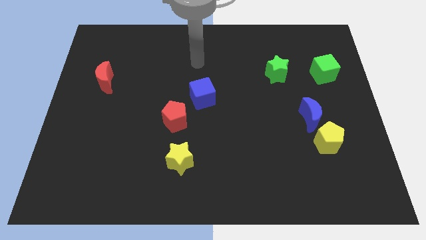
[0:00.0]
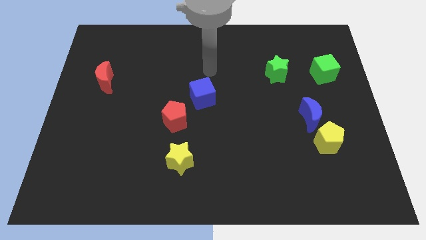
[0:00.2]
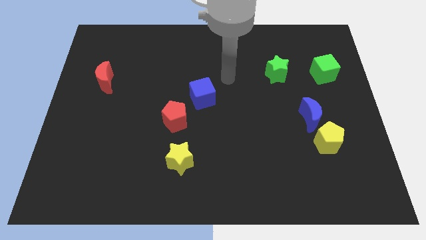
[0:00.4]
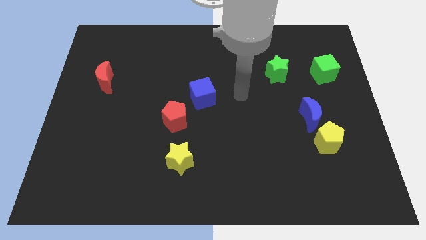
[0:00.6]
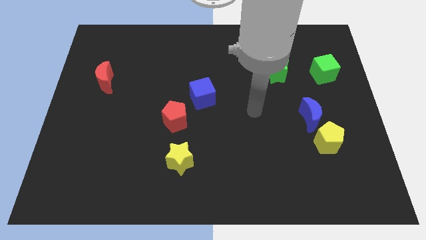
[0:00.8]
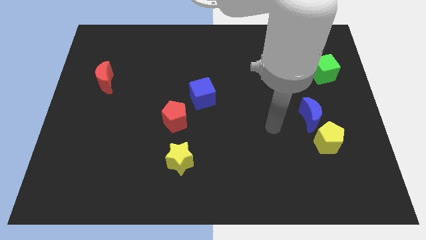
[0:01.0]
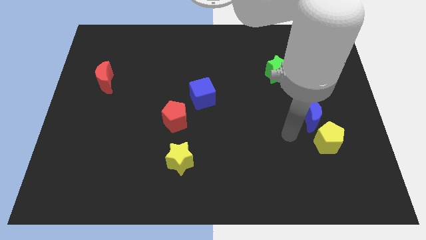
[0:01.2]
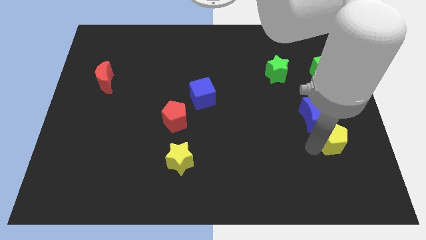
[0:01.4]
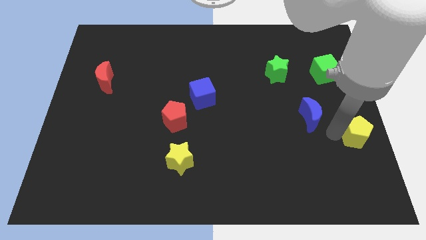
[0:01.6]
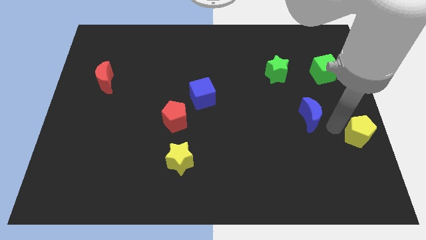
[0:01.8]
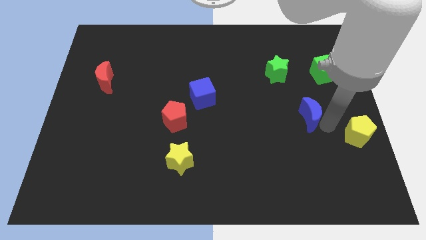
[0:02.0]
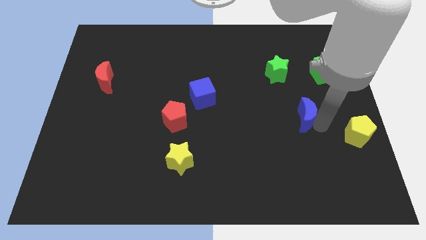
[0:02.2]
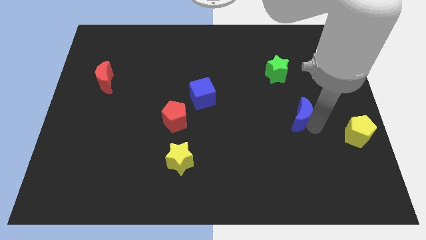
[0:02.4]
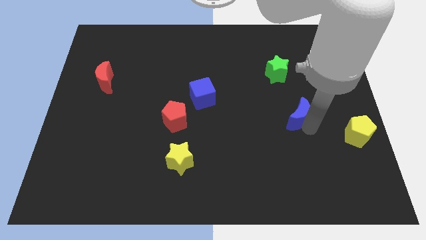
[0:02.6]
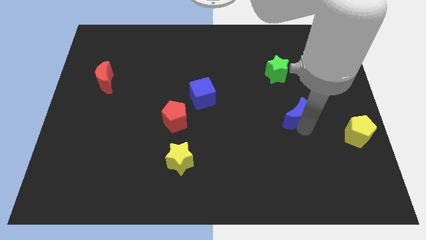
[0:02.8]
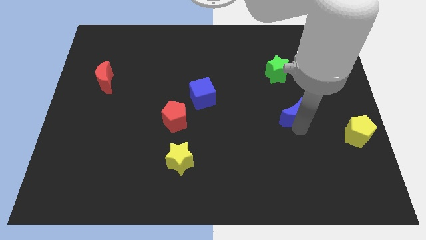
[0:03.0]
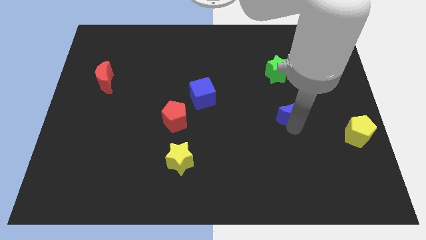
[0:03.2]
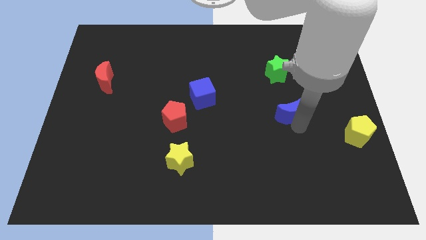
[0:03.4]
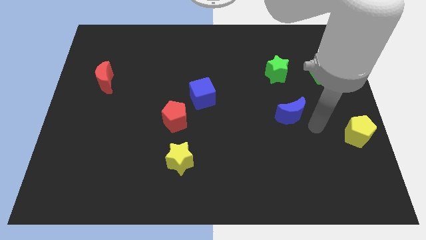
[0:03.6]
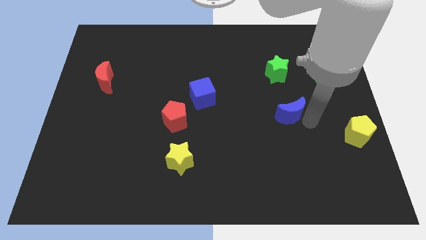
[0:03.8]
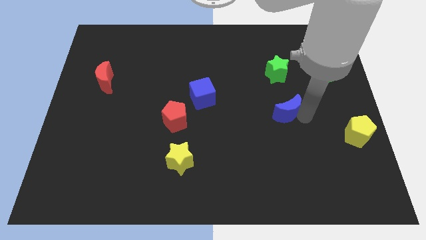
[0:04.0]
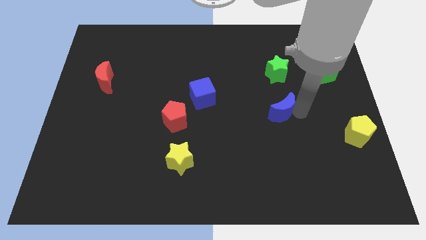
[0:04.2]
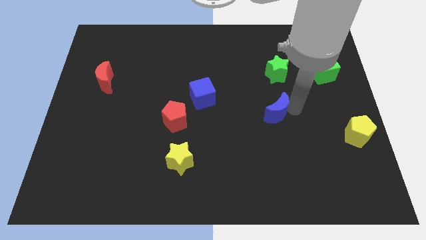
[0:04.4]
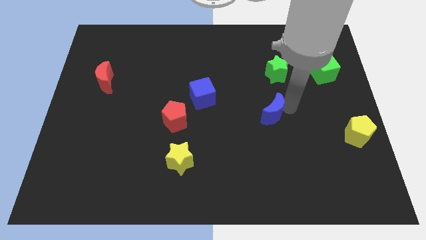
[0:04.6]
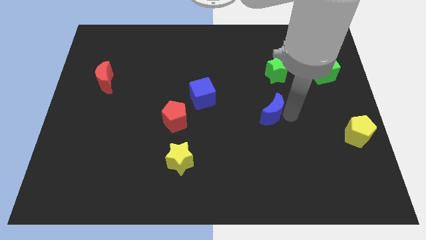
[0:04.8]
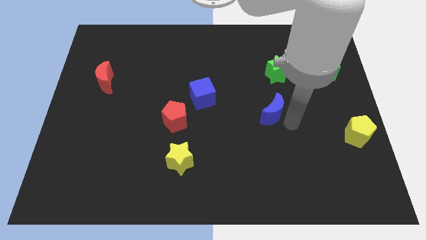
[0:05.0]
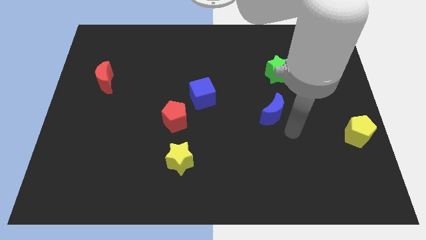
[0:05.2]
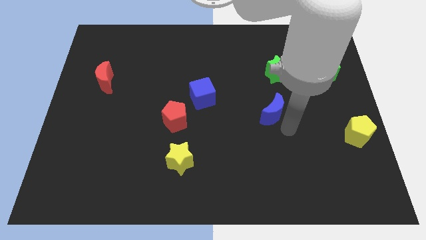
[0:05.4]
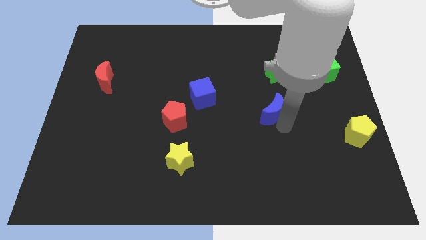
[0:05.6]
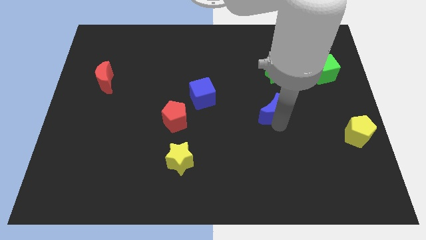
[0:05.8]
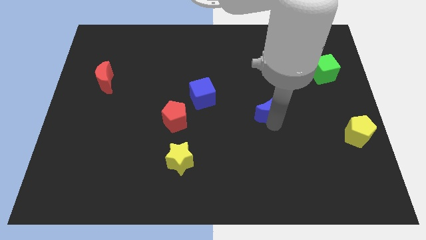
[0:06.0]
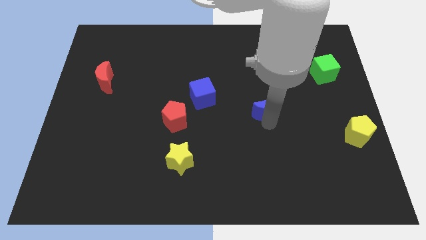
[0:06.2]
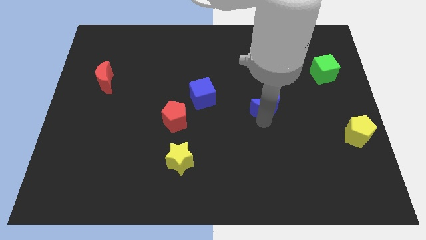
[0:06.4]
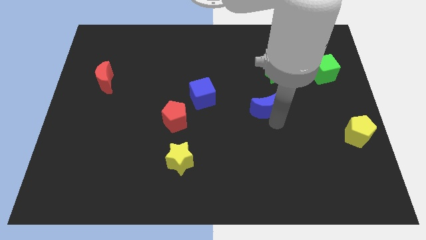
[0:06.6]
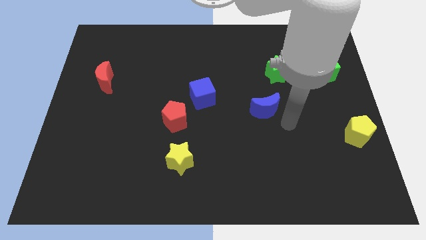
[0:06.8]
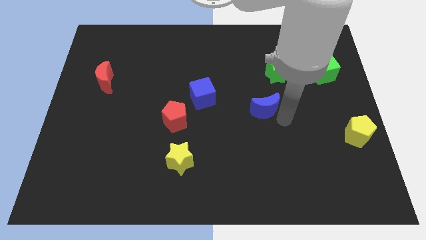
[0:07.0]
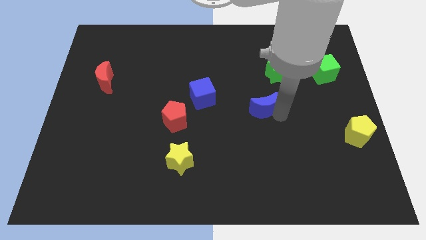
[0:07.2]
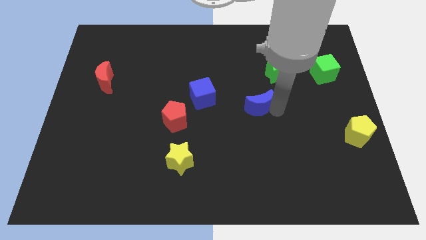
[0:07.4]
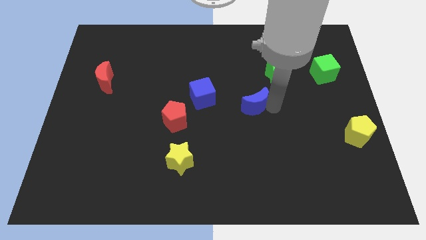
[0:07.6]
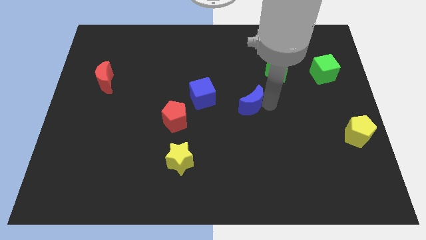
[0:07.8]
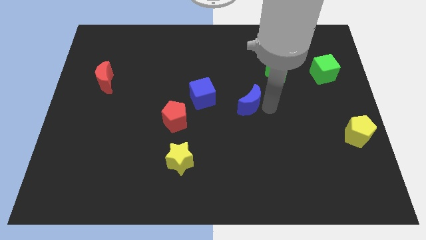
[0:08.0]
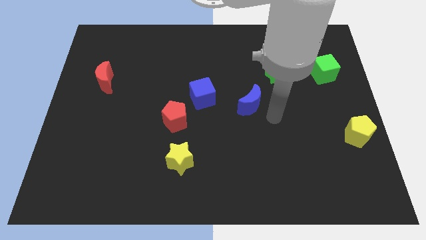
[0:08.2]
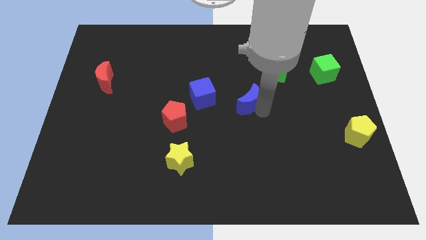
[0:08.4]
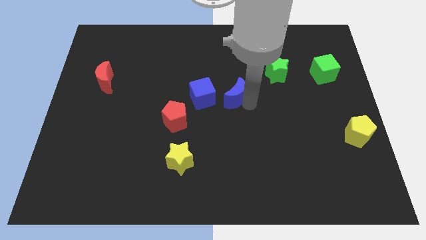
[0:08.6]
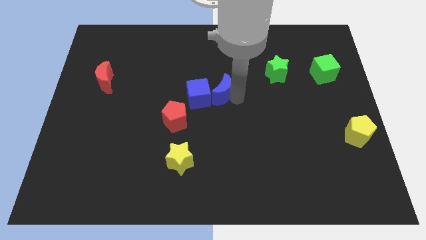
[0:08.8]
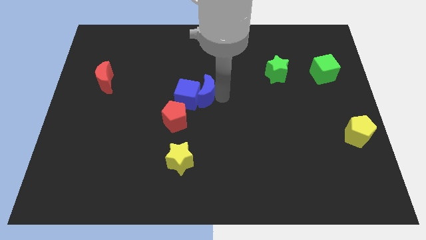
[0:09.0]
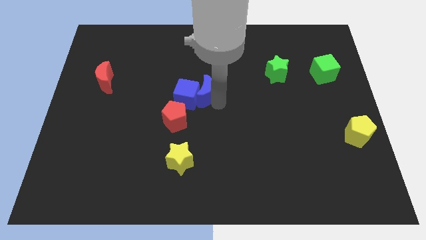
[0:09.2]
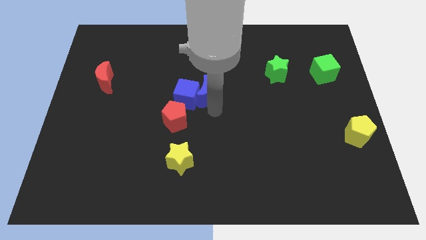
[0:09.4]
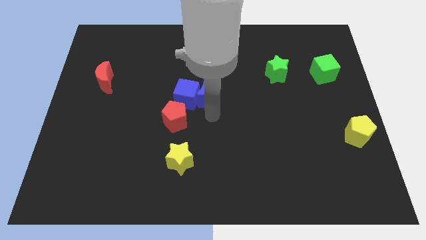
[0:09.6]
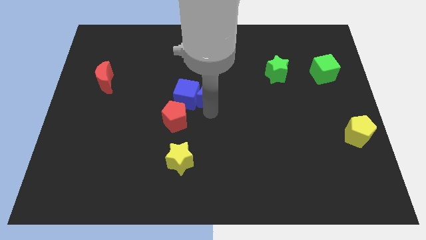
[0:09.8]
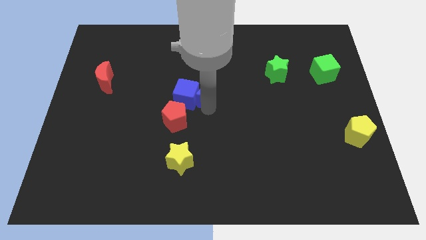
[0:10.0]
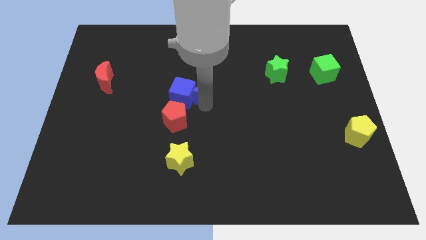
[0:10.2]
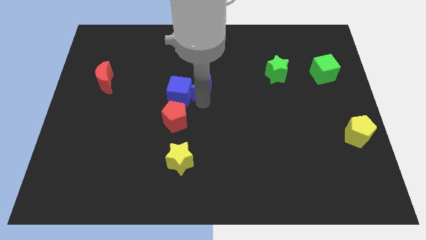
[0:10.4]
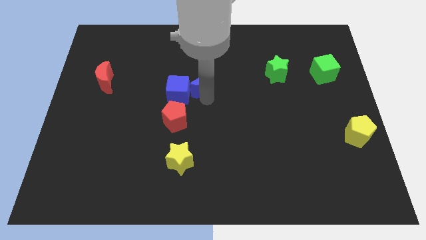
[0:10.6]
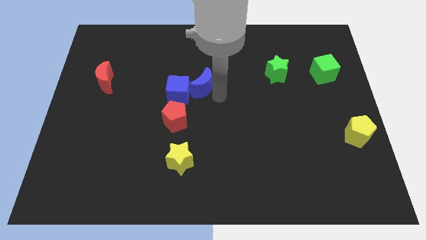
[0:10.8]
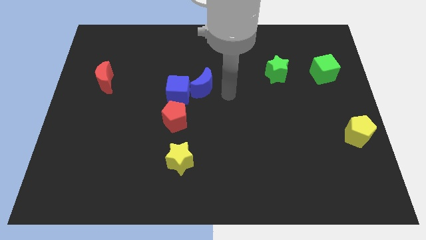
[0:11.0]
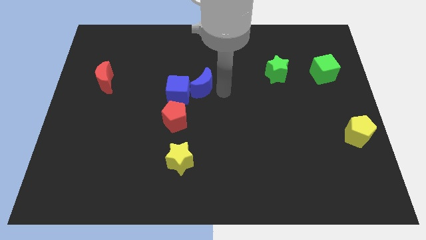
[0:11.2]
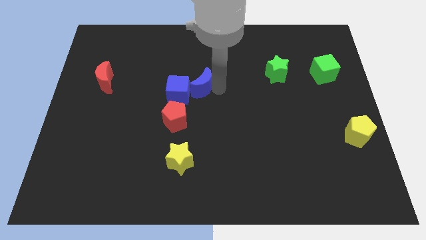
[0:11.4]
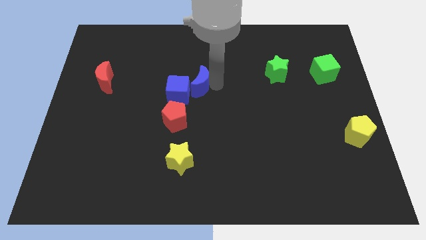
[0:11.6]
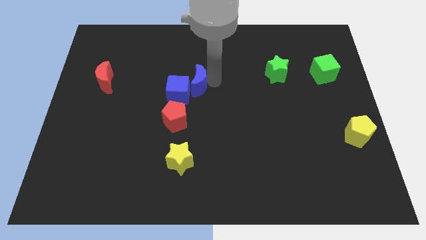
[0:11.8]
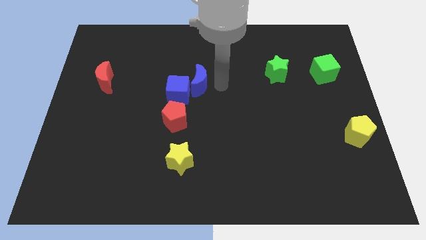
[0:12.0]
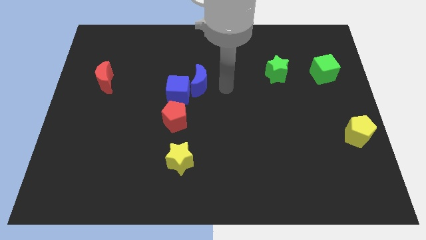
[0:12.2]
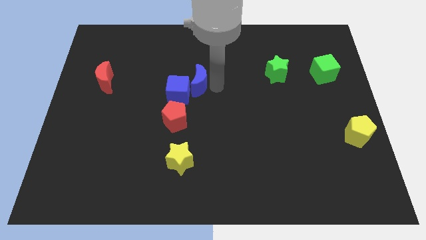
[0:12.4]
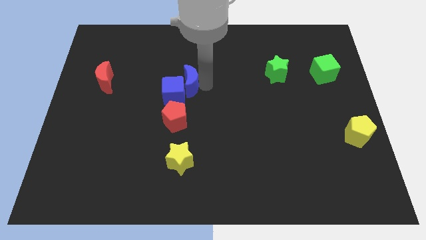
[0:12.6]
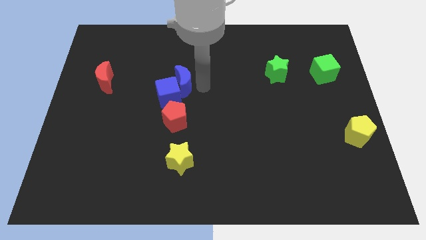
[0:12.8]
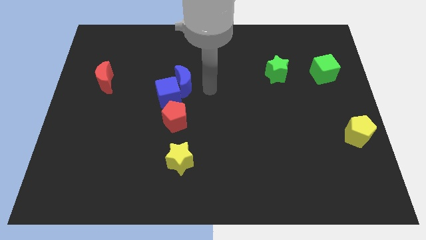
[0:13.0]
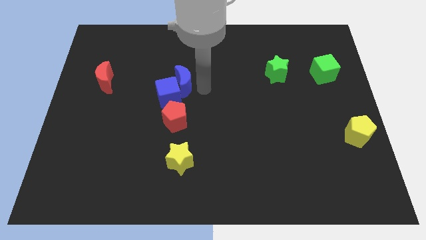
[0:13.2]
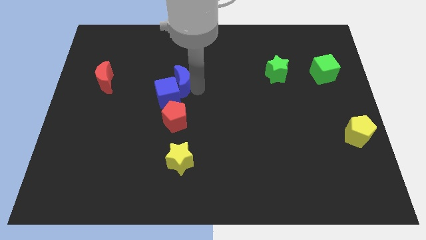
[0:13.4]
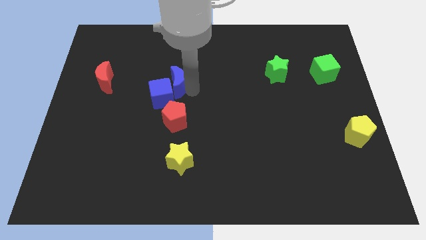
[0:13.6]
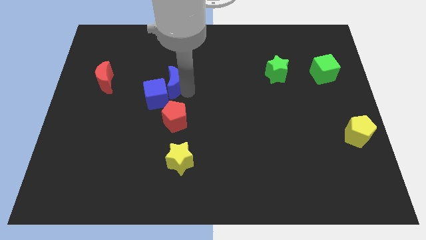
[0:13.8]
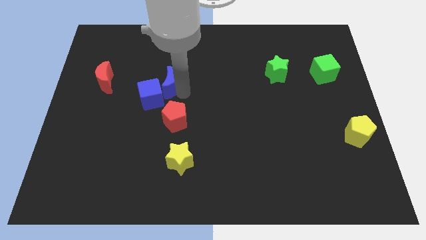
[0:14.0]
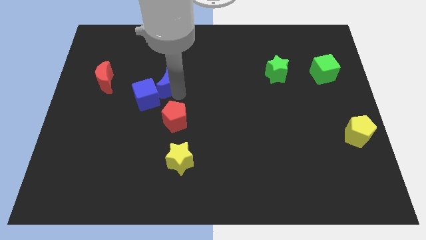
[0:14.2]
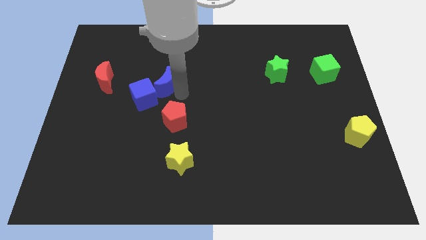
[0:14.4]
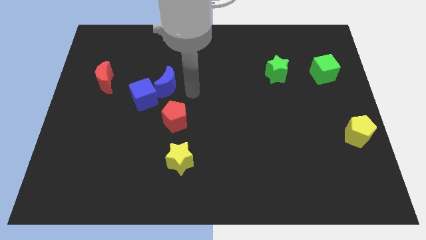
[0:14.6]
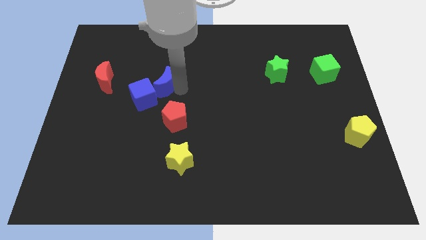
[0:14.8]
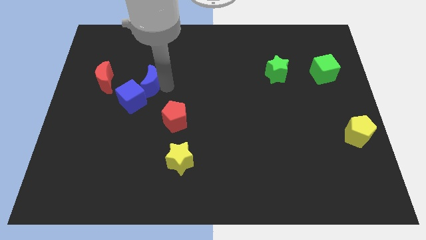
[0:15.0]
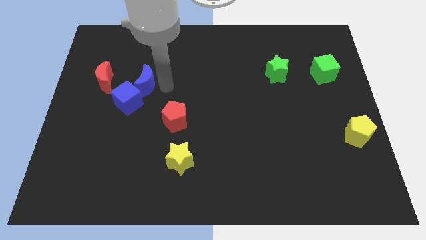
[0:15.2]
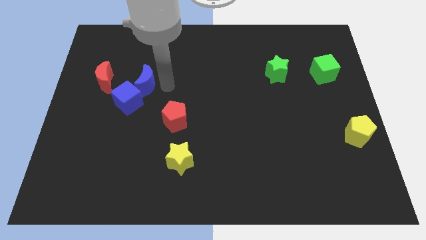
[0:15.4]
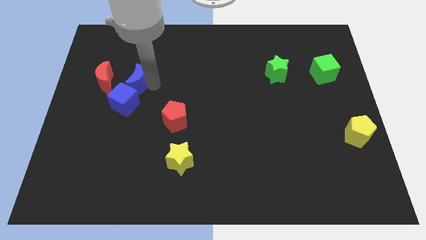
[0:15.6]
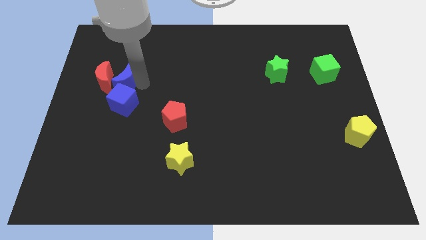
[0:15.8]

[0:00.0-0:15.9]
move the blue moon towards the red moon
